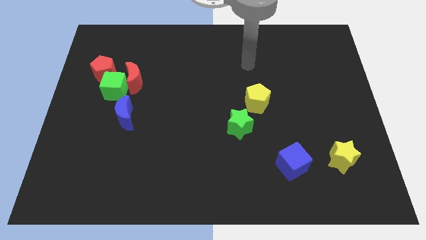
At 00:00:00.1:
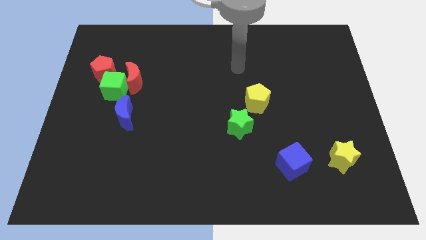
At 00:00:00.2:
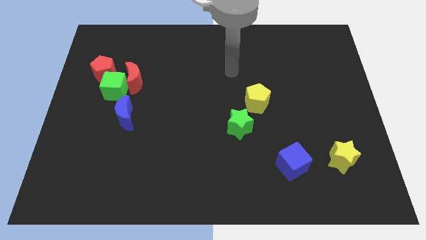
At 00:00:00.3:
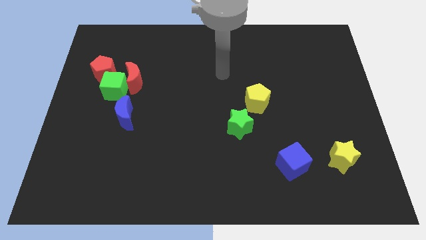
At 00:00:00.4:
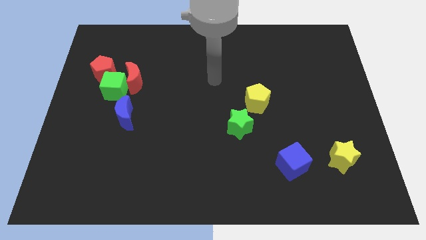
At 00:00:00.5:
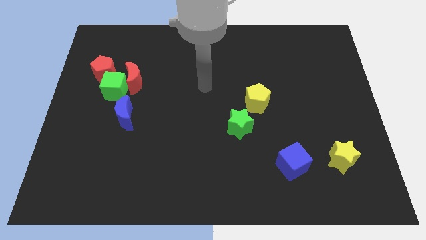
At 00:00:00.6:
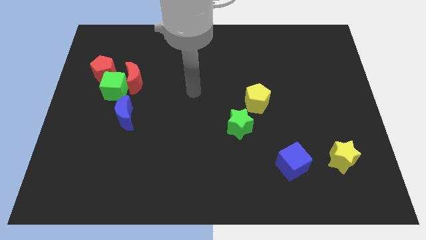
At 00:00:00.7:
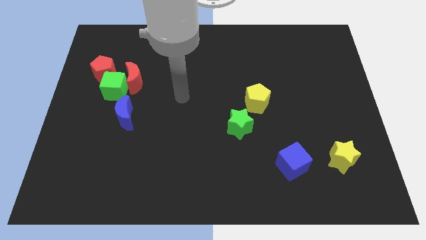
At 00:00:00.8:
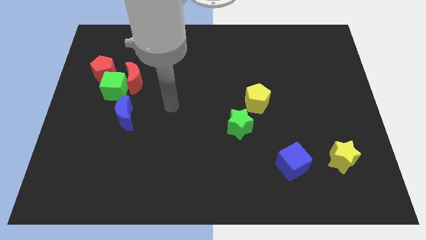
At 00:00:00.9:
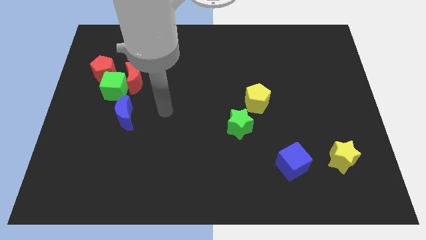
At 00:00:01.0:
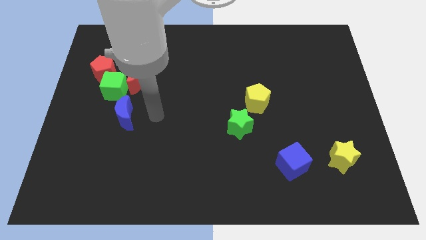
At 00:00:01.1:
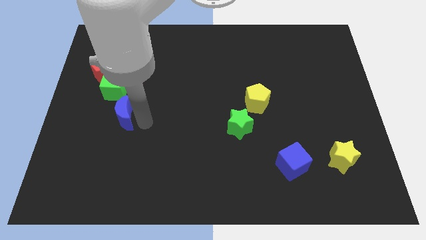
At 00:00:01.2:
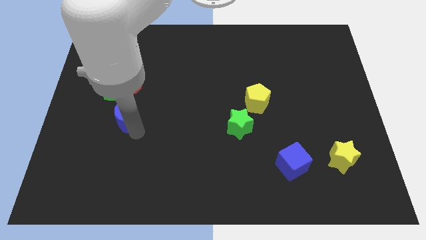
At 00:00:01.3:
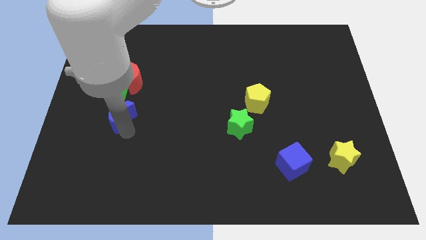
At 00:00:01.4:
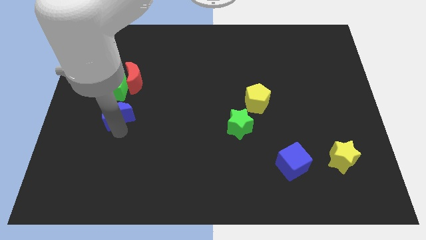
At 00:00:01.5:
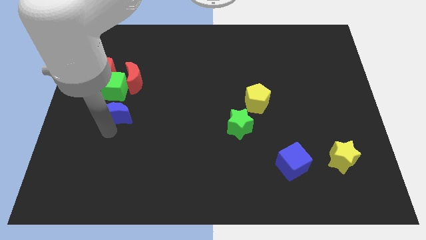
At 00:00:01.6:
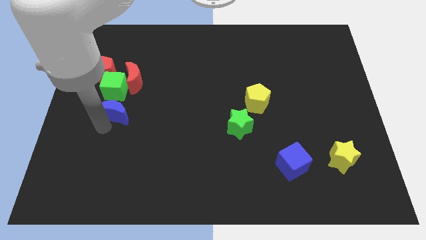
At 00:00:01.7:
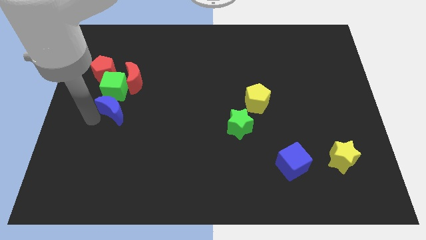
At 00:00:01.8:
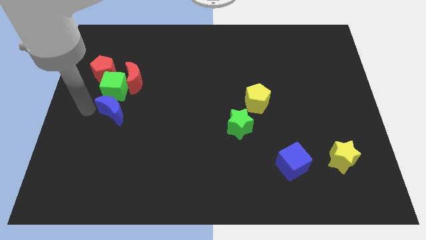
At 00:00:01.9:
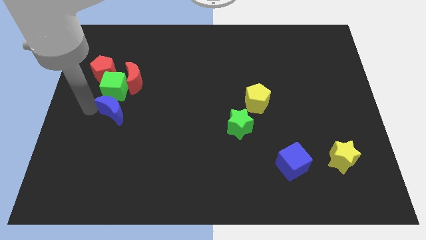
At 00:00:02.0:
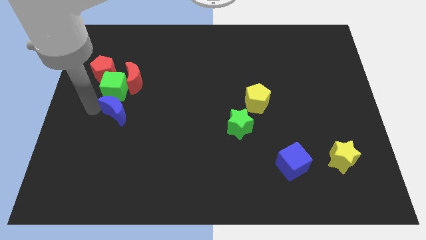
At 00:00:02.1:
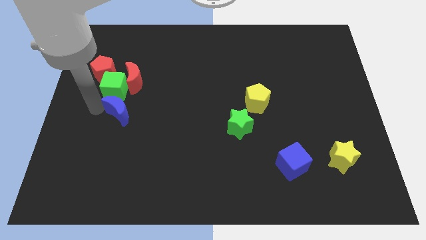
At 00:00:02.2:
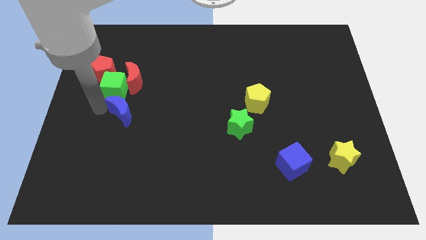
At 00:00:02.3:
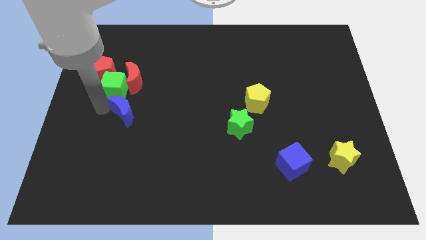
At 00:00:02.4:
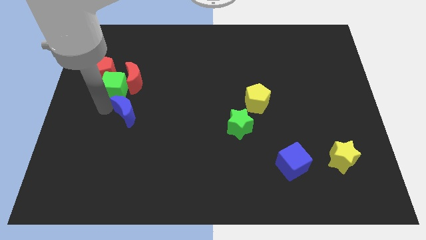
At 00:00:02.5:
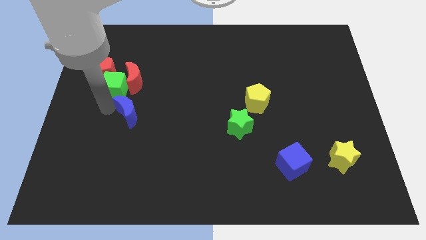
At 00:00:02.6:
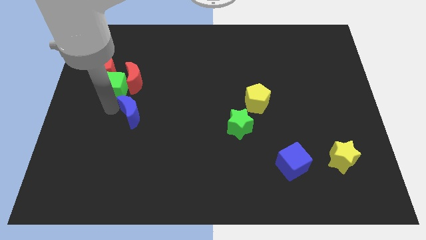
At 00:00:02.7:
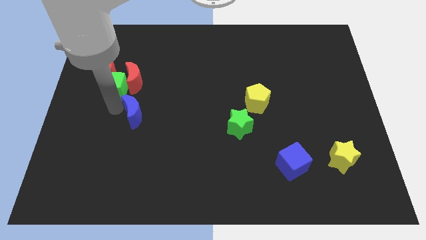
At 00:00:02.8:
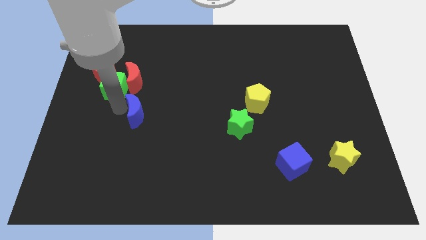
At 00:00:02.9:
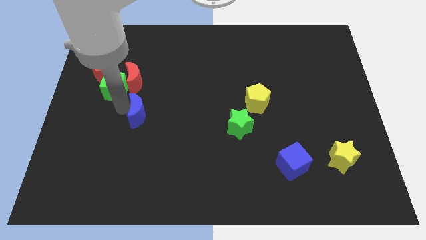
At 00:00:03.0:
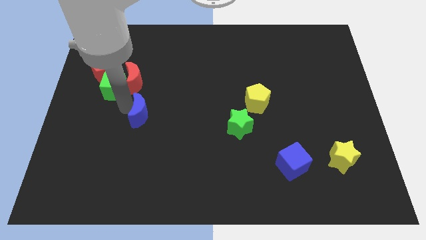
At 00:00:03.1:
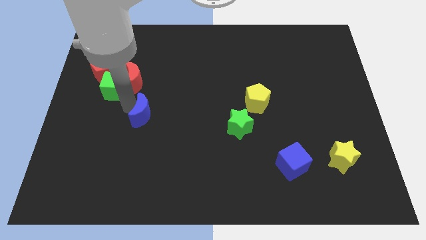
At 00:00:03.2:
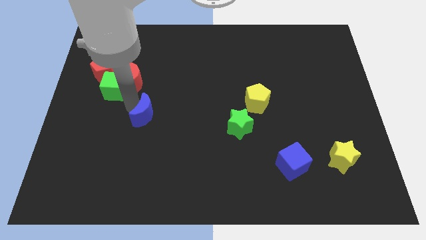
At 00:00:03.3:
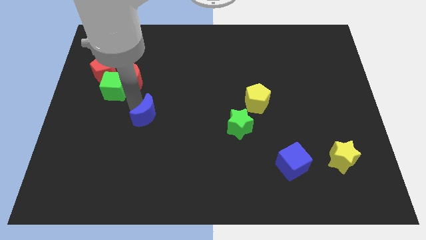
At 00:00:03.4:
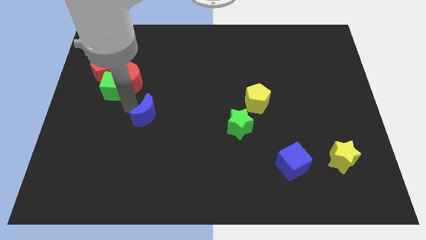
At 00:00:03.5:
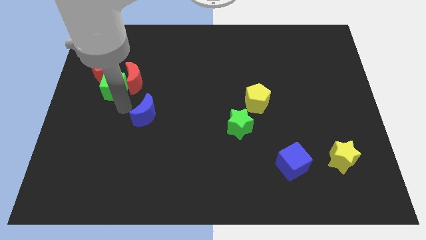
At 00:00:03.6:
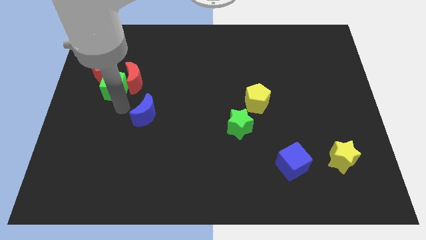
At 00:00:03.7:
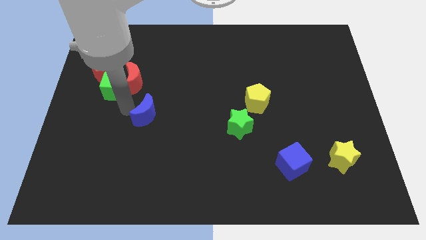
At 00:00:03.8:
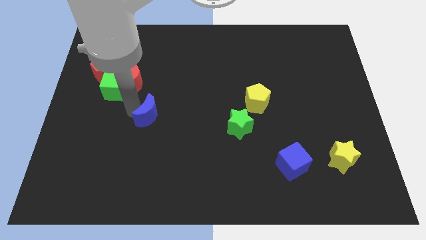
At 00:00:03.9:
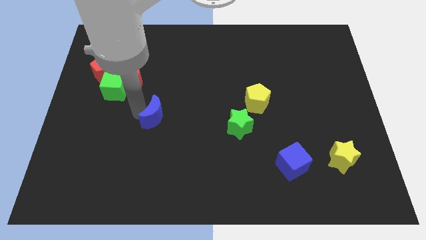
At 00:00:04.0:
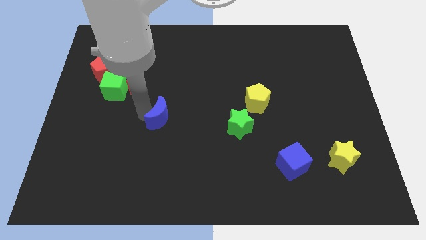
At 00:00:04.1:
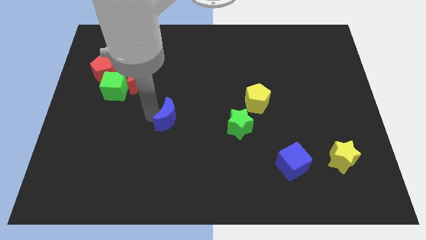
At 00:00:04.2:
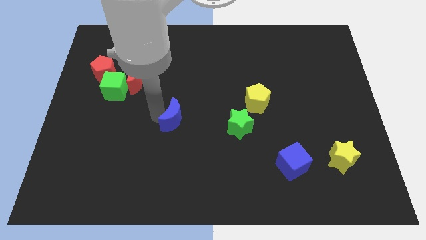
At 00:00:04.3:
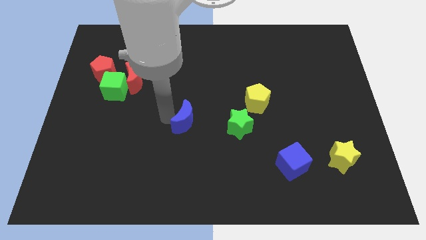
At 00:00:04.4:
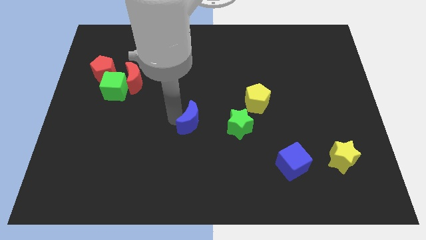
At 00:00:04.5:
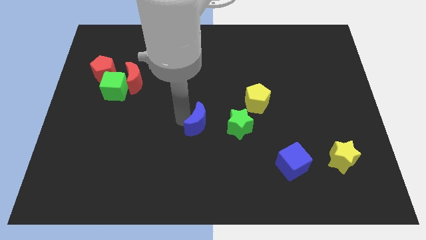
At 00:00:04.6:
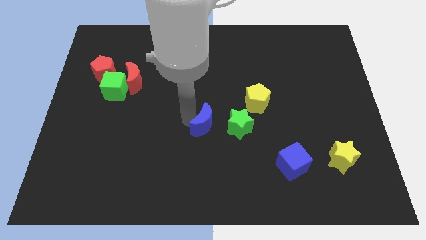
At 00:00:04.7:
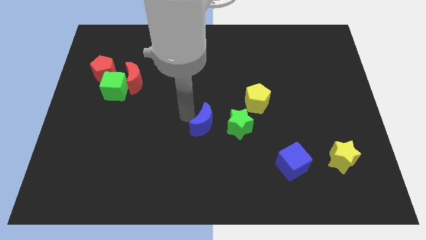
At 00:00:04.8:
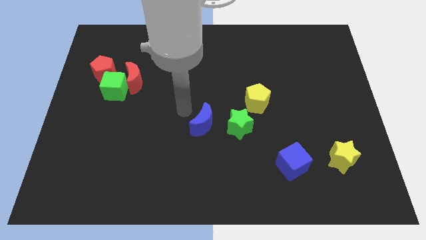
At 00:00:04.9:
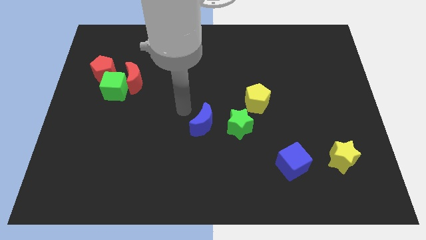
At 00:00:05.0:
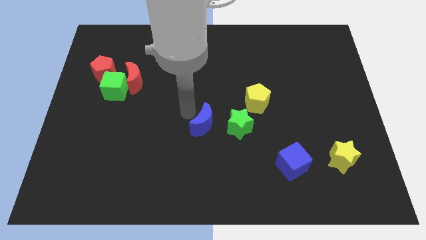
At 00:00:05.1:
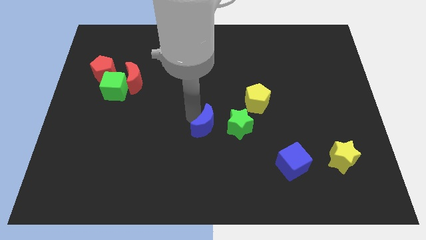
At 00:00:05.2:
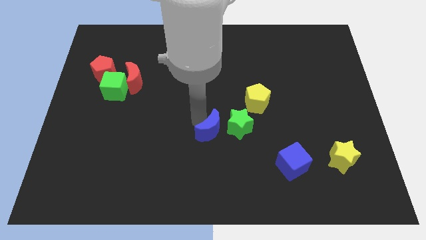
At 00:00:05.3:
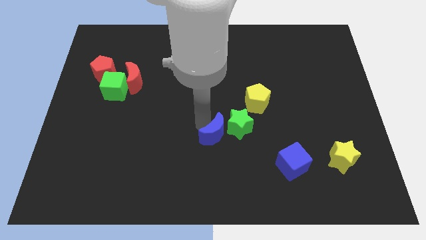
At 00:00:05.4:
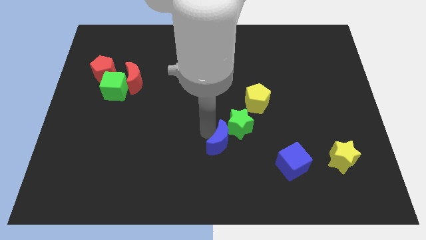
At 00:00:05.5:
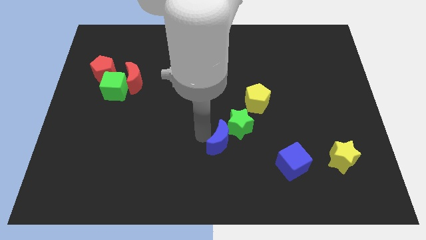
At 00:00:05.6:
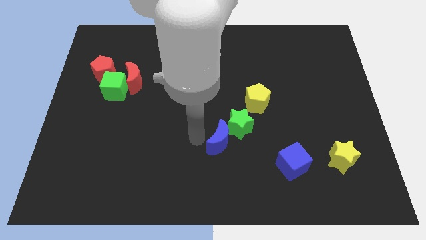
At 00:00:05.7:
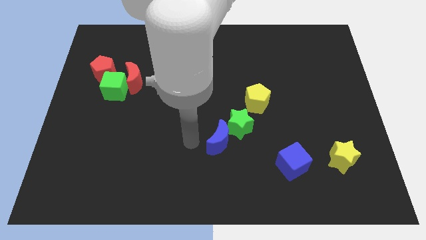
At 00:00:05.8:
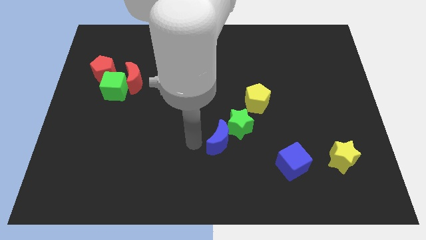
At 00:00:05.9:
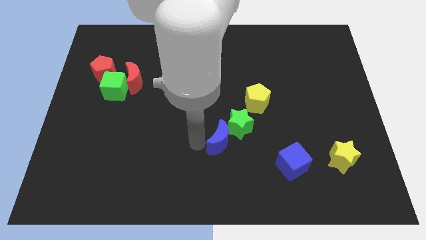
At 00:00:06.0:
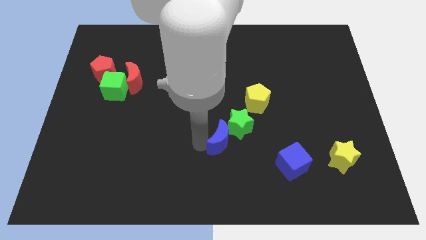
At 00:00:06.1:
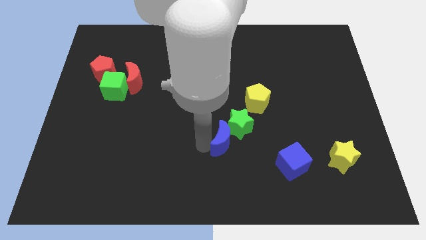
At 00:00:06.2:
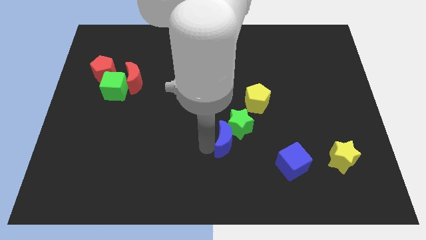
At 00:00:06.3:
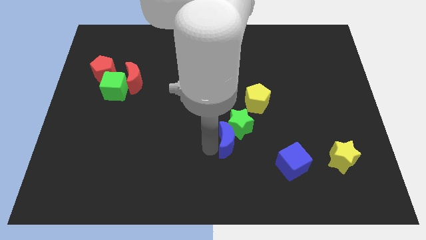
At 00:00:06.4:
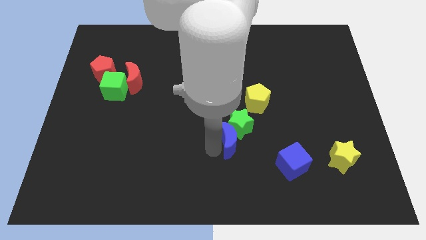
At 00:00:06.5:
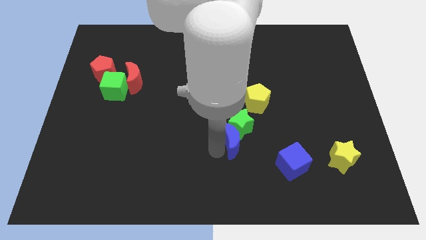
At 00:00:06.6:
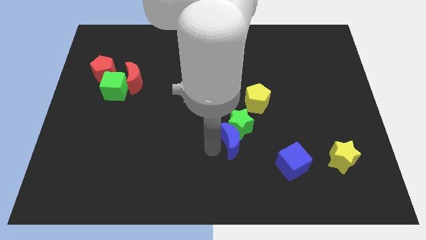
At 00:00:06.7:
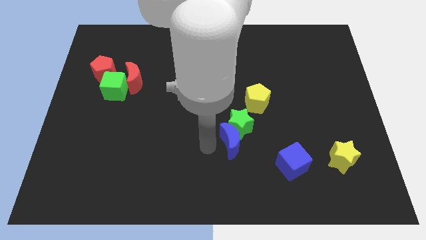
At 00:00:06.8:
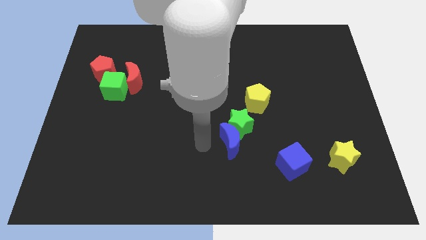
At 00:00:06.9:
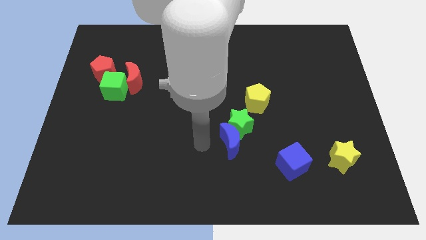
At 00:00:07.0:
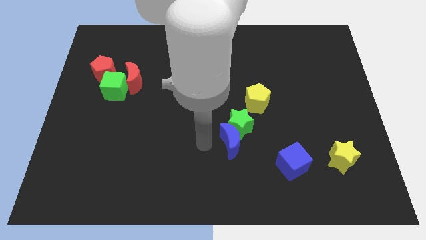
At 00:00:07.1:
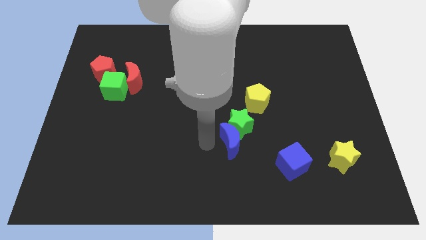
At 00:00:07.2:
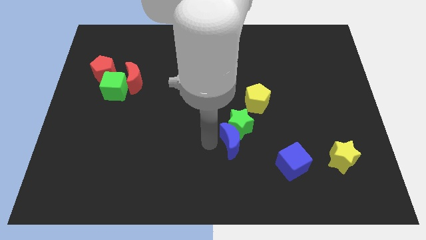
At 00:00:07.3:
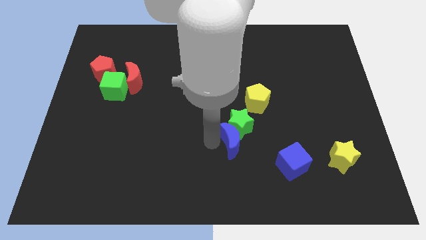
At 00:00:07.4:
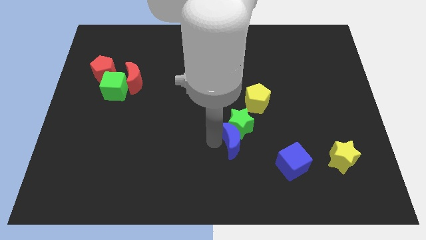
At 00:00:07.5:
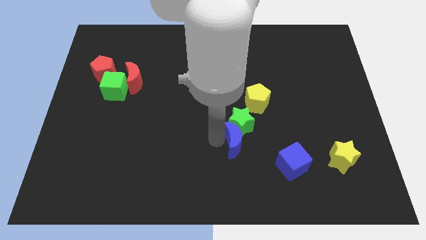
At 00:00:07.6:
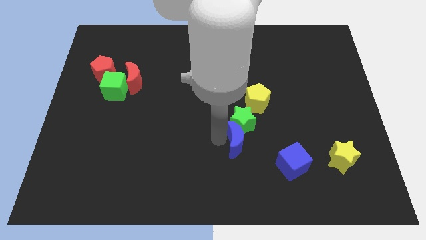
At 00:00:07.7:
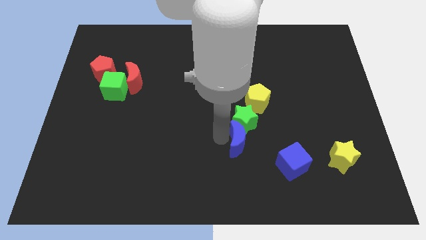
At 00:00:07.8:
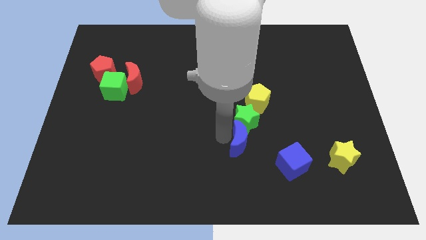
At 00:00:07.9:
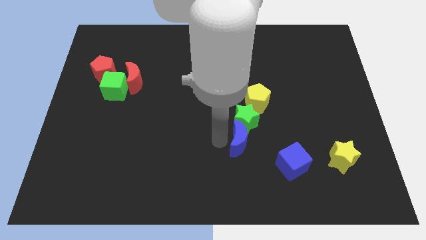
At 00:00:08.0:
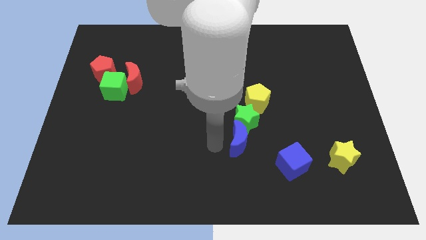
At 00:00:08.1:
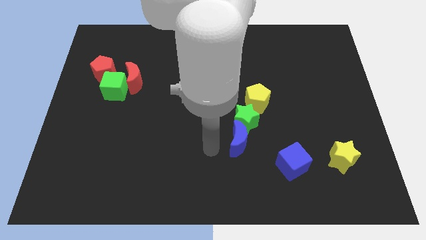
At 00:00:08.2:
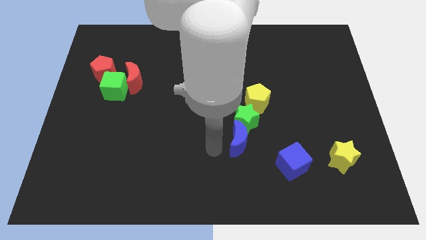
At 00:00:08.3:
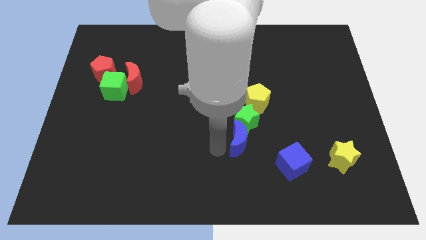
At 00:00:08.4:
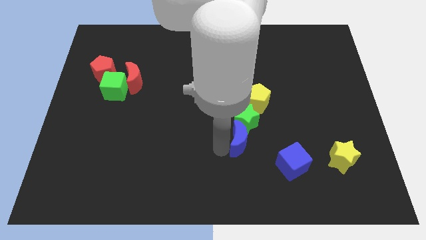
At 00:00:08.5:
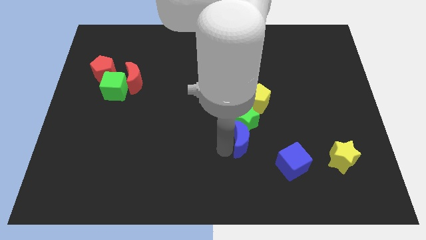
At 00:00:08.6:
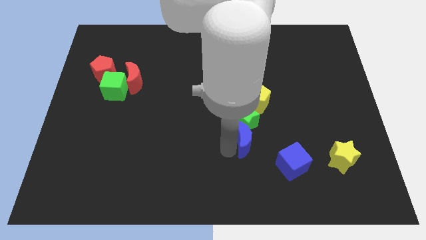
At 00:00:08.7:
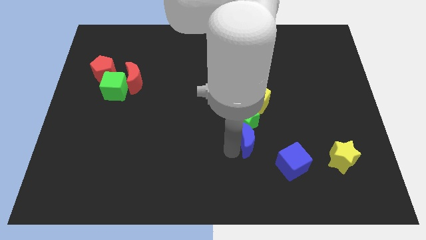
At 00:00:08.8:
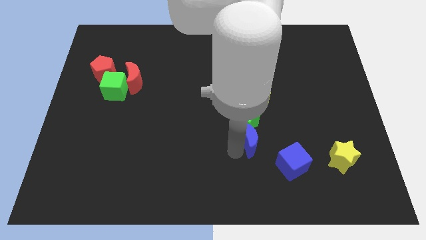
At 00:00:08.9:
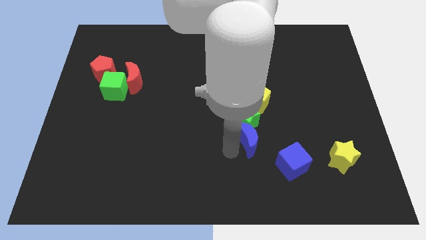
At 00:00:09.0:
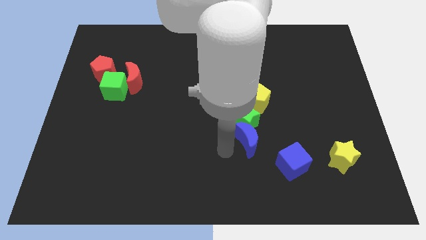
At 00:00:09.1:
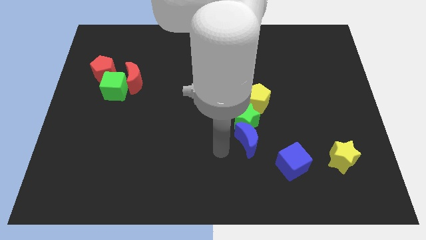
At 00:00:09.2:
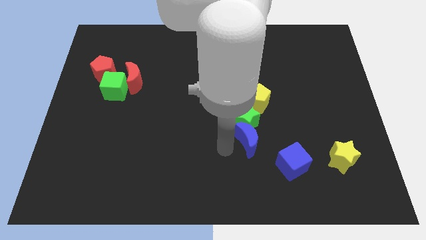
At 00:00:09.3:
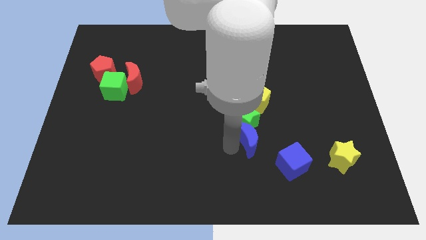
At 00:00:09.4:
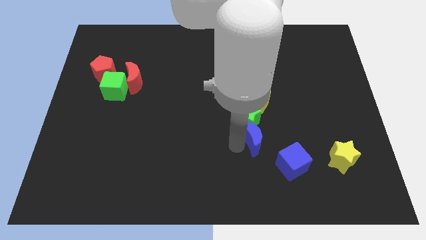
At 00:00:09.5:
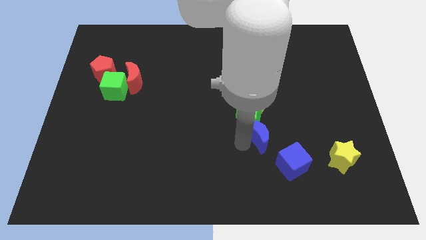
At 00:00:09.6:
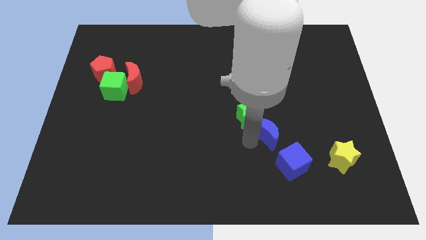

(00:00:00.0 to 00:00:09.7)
move the blue moon above the blue cube
